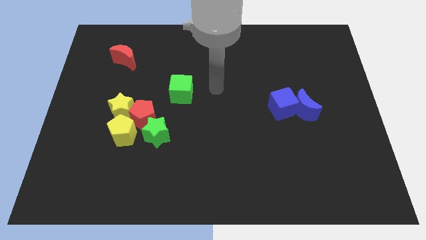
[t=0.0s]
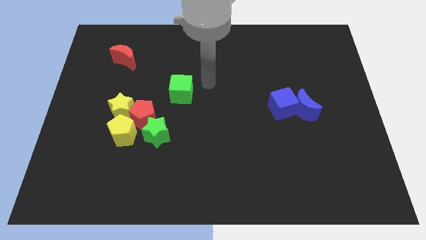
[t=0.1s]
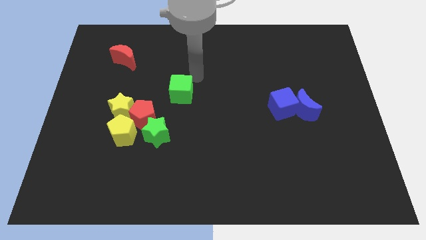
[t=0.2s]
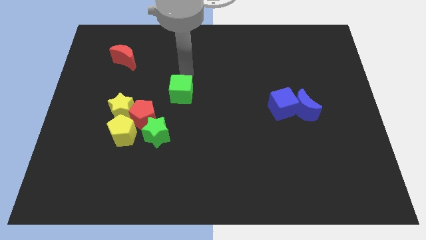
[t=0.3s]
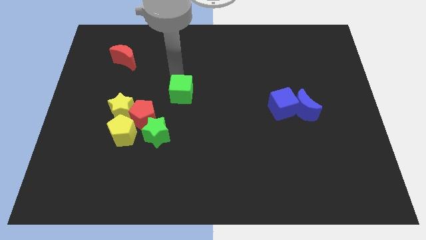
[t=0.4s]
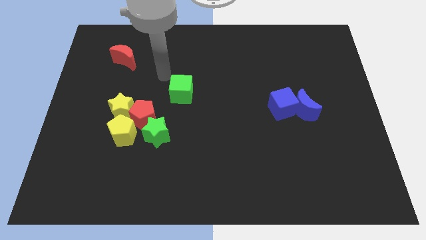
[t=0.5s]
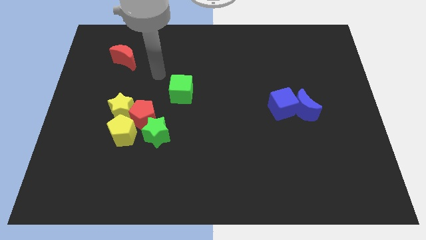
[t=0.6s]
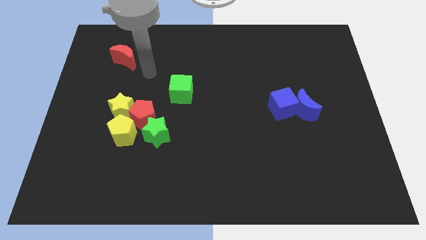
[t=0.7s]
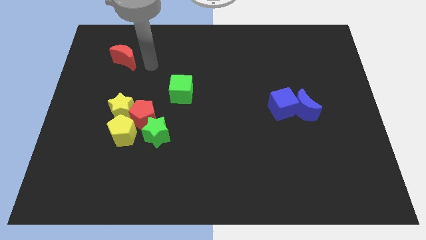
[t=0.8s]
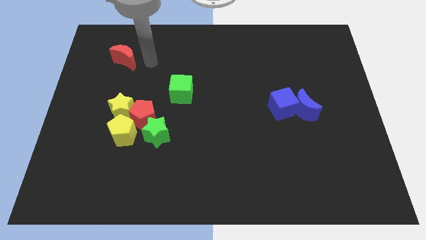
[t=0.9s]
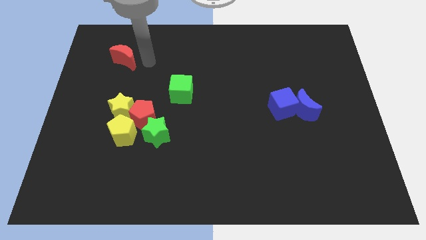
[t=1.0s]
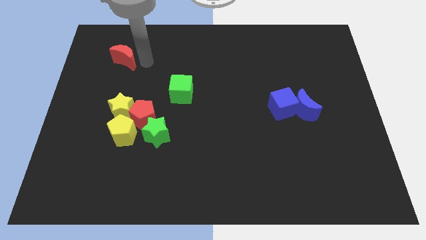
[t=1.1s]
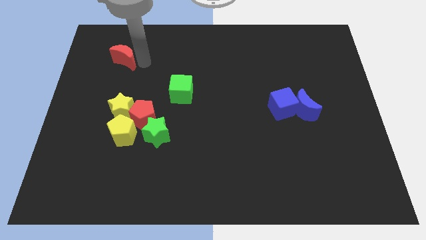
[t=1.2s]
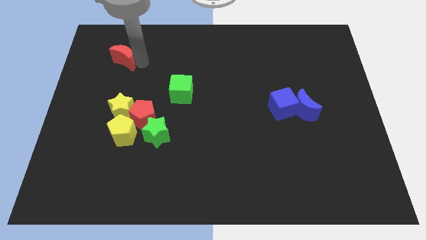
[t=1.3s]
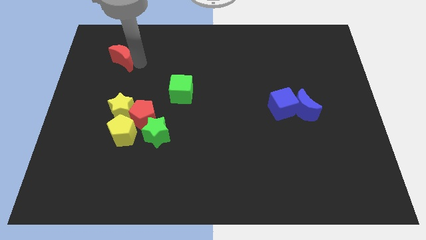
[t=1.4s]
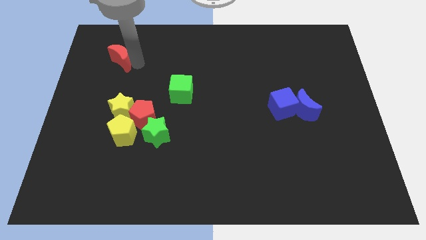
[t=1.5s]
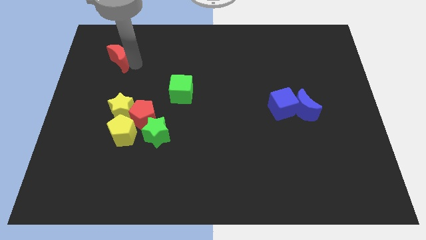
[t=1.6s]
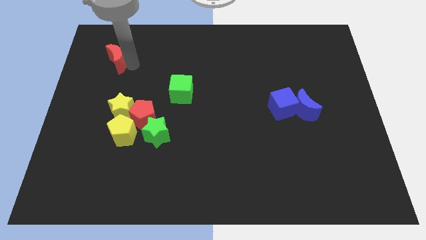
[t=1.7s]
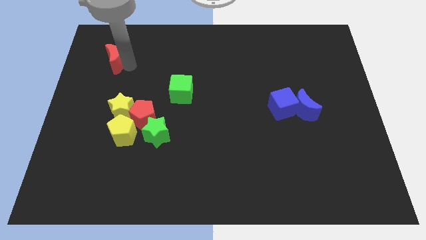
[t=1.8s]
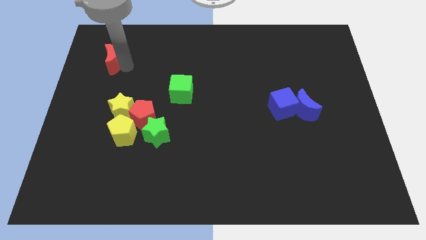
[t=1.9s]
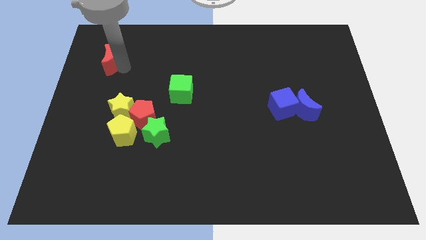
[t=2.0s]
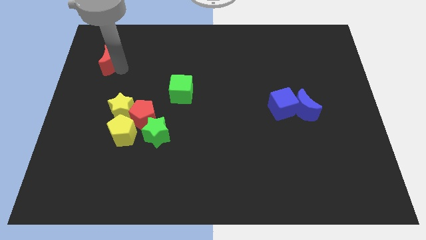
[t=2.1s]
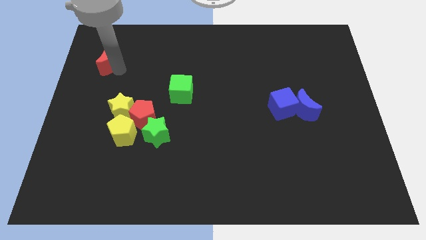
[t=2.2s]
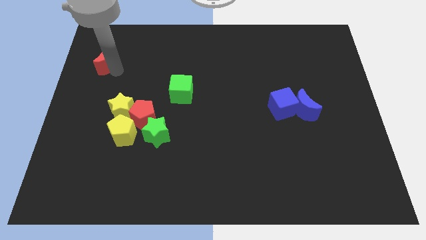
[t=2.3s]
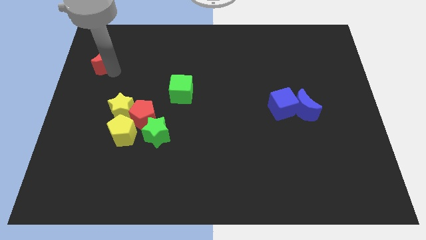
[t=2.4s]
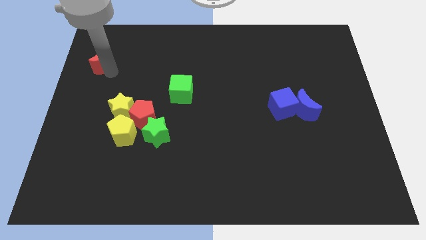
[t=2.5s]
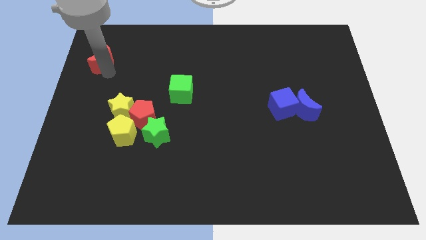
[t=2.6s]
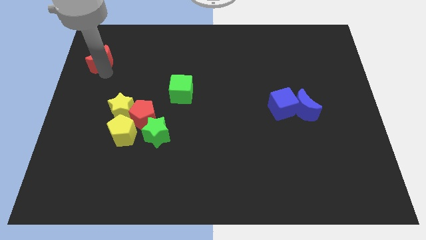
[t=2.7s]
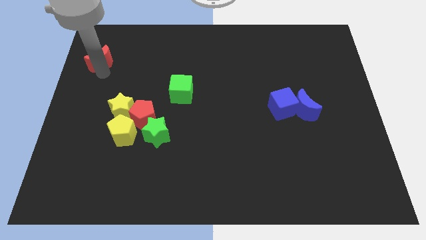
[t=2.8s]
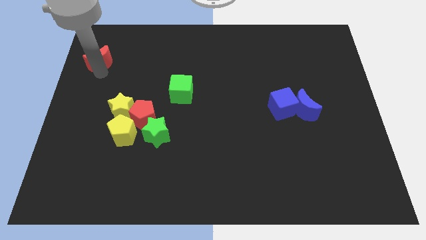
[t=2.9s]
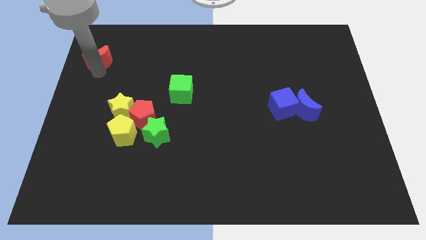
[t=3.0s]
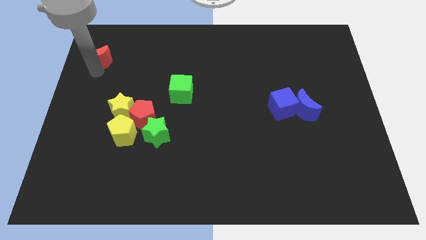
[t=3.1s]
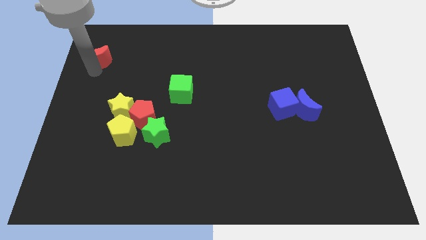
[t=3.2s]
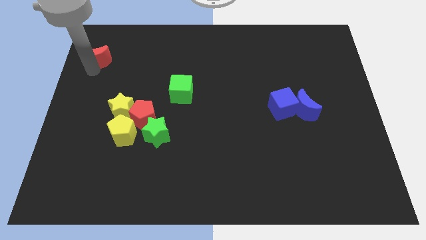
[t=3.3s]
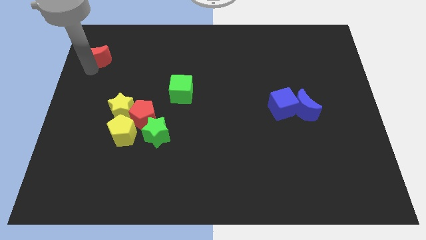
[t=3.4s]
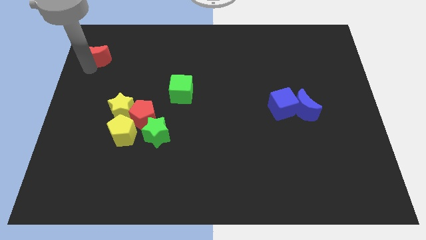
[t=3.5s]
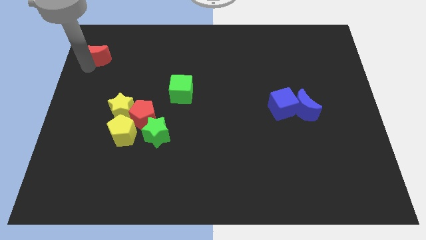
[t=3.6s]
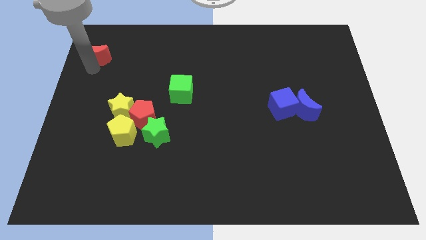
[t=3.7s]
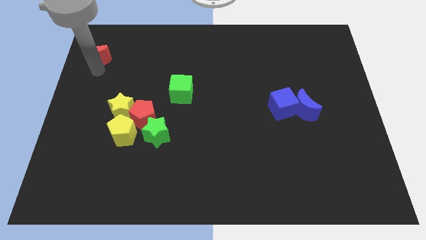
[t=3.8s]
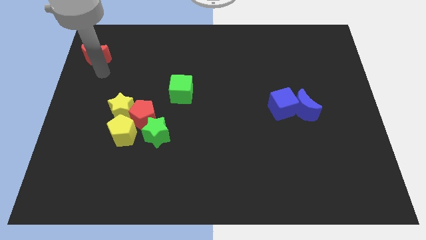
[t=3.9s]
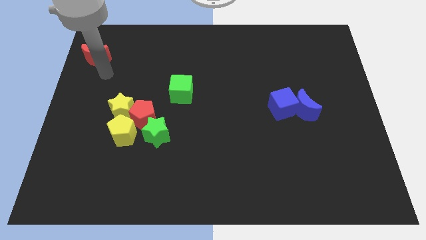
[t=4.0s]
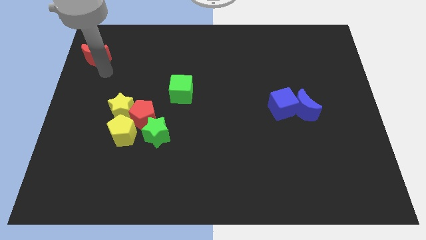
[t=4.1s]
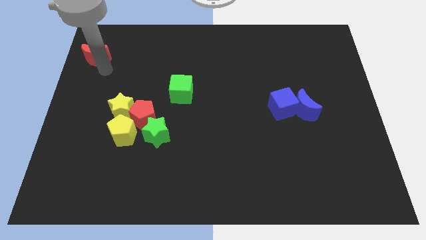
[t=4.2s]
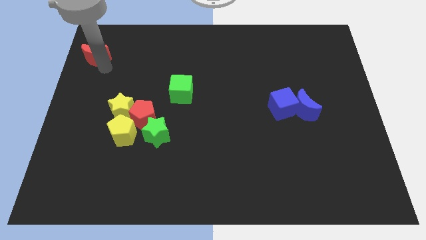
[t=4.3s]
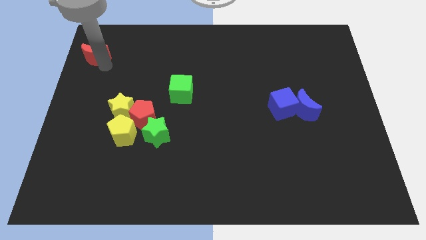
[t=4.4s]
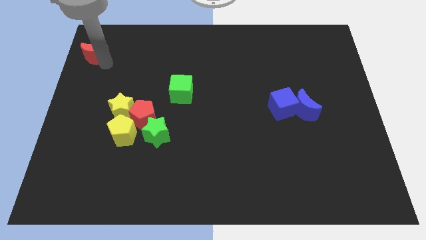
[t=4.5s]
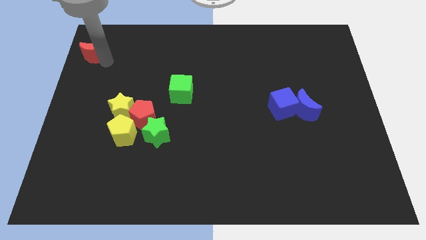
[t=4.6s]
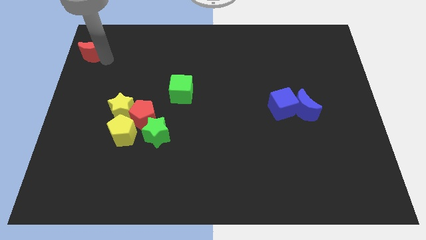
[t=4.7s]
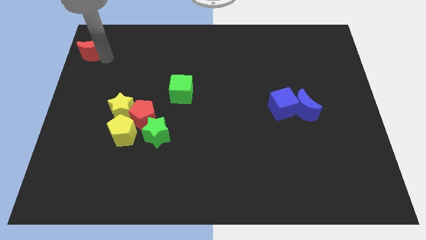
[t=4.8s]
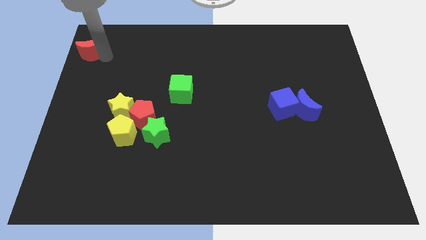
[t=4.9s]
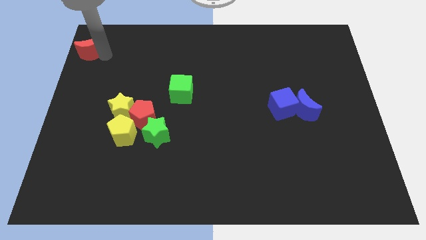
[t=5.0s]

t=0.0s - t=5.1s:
slide the red moon to the top left corner

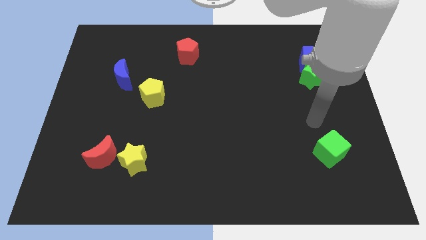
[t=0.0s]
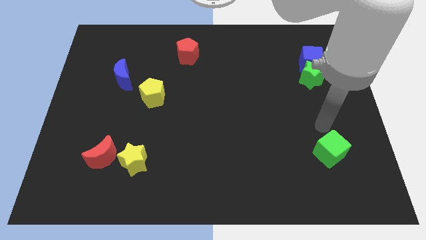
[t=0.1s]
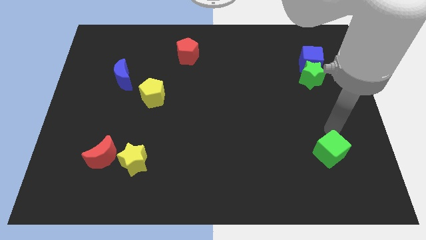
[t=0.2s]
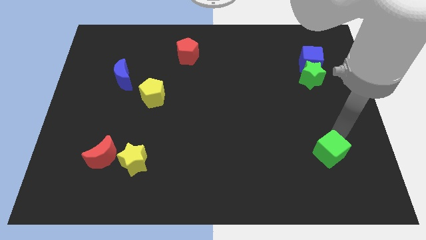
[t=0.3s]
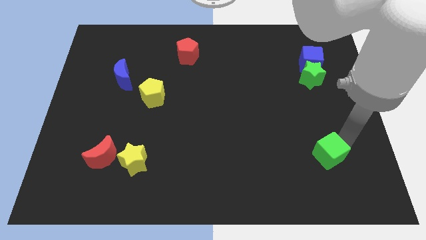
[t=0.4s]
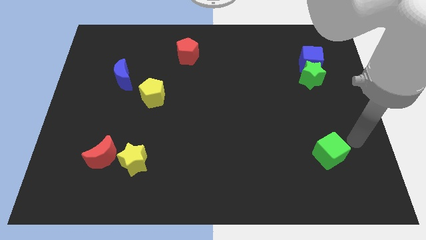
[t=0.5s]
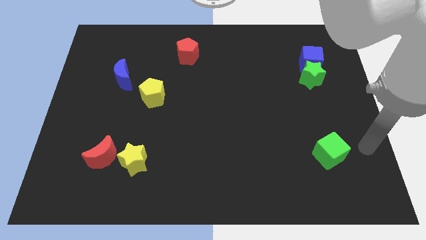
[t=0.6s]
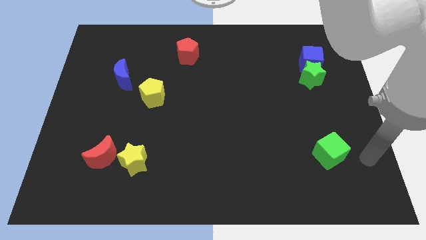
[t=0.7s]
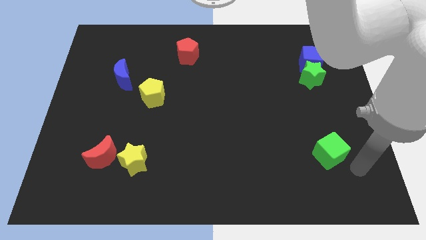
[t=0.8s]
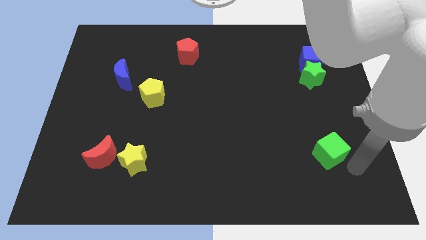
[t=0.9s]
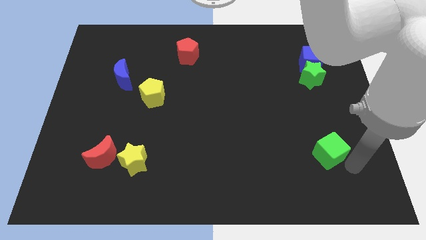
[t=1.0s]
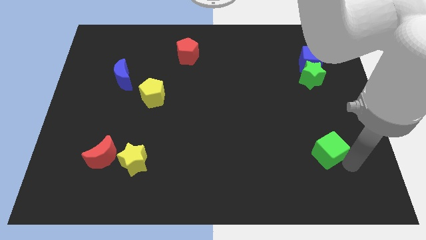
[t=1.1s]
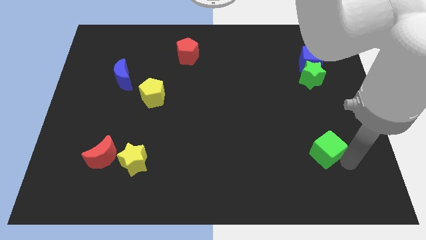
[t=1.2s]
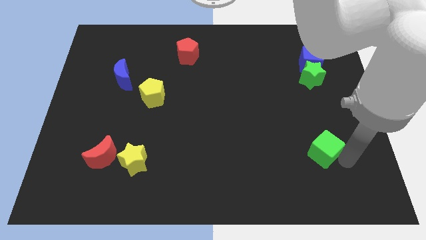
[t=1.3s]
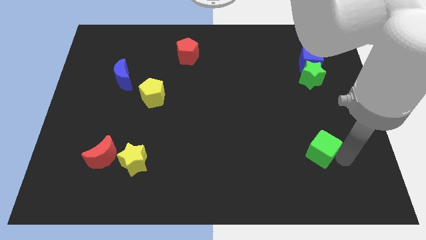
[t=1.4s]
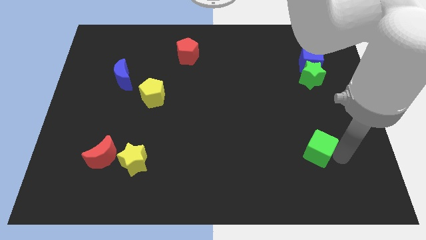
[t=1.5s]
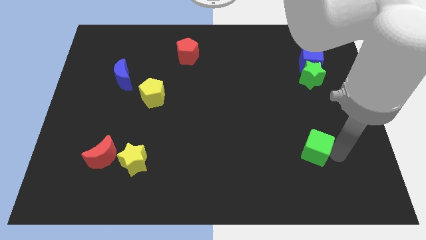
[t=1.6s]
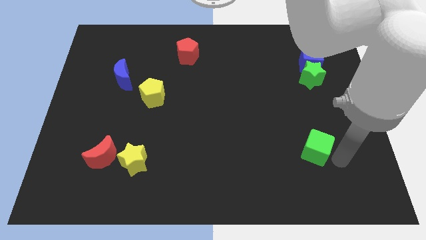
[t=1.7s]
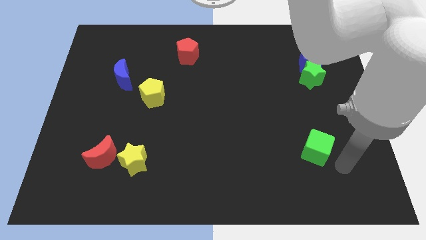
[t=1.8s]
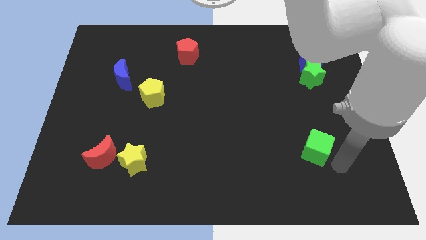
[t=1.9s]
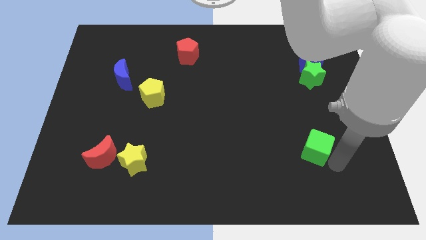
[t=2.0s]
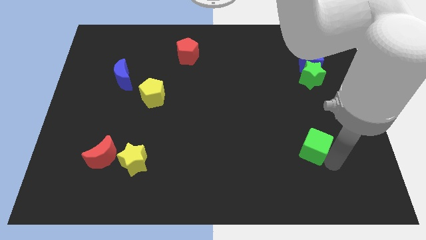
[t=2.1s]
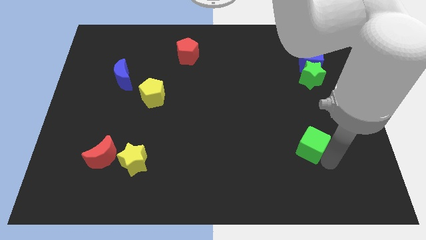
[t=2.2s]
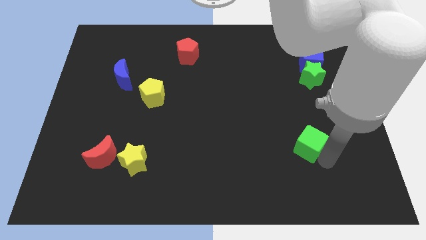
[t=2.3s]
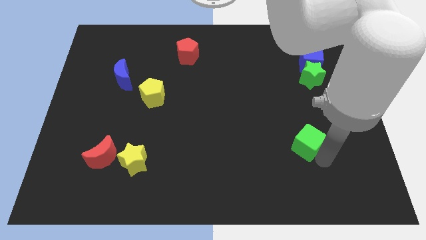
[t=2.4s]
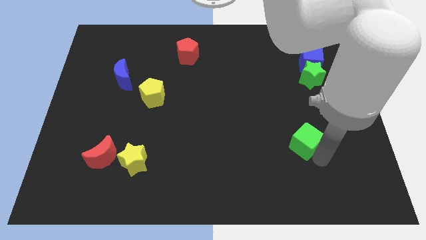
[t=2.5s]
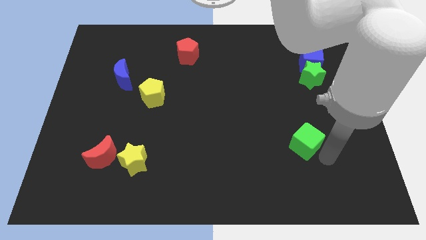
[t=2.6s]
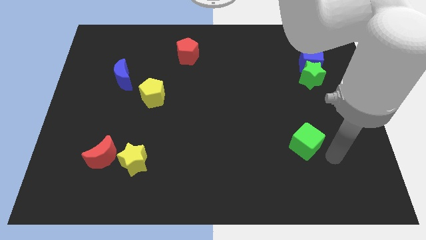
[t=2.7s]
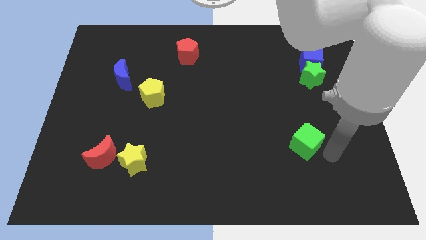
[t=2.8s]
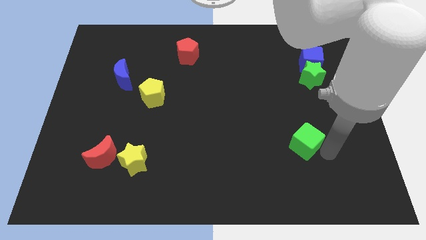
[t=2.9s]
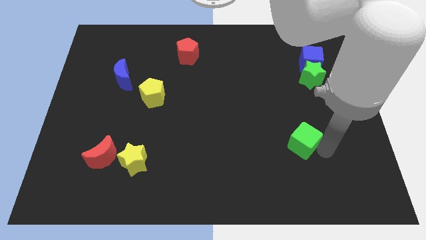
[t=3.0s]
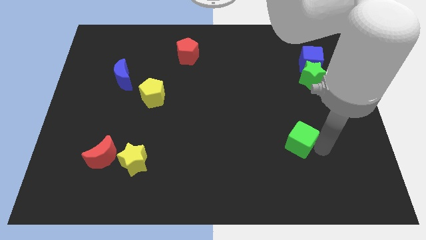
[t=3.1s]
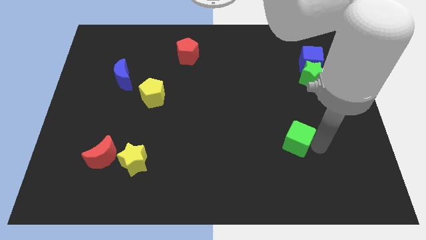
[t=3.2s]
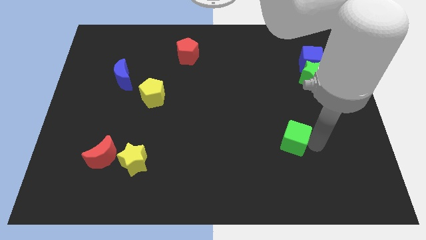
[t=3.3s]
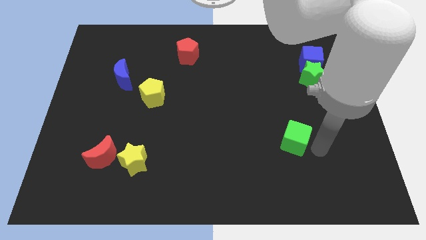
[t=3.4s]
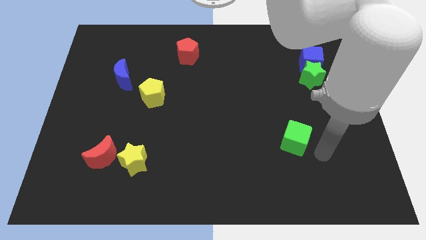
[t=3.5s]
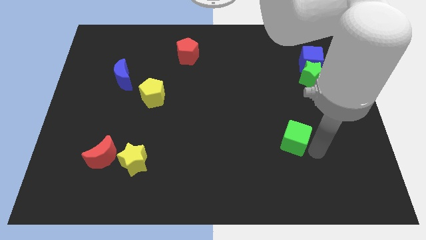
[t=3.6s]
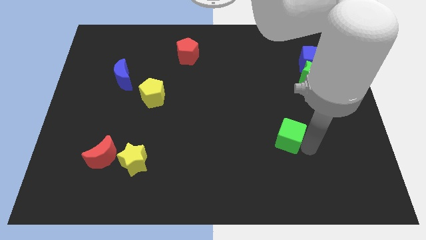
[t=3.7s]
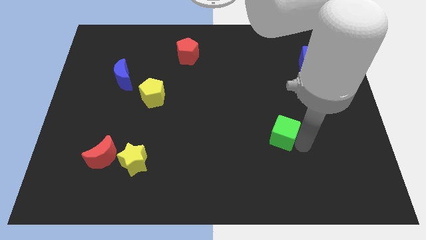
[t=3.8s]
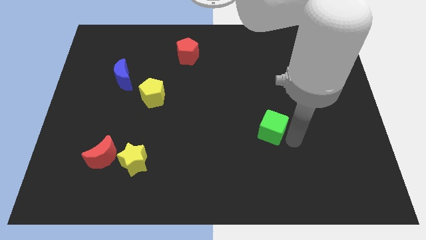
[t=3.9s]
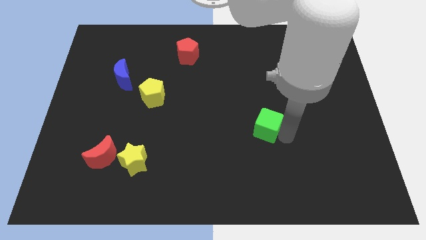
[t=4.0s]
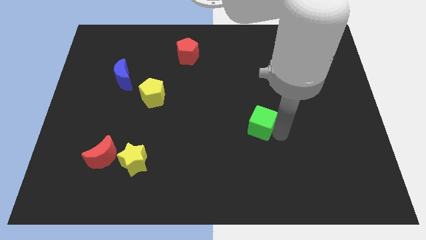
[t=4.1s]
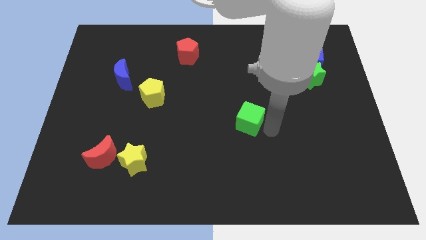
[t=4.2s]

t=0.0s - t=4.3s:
push the green cube to the center
